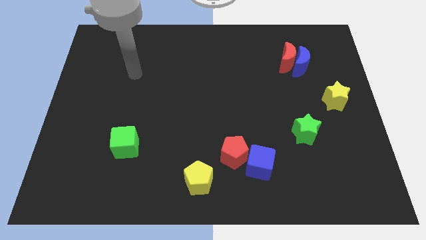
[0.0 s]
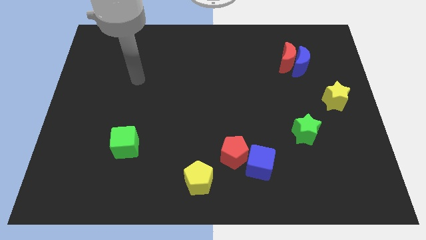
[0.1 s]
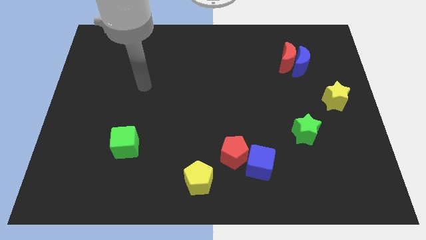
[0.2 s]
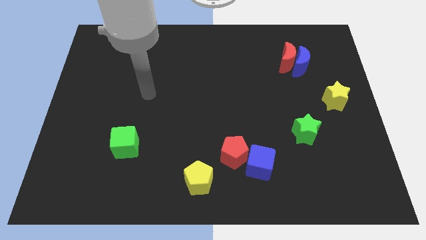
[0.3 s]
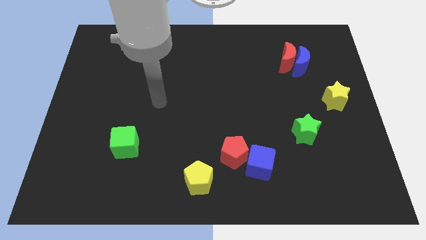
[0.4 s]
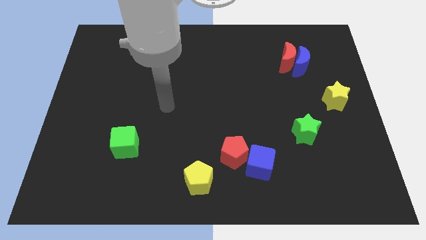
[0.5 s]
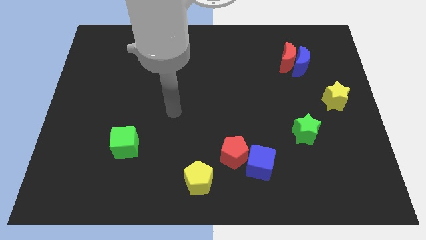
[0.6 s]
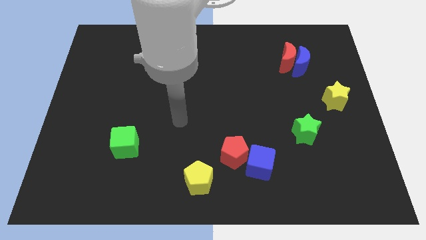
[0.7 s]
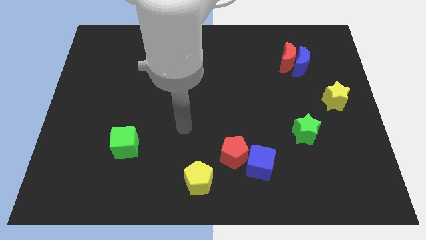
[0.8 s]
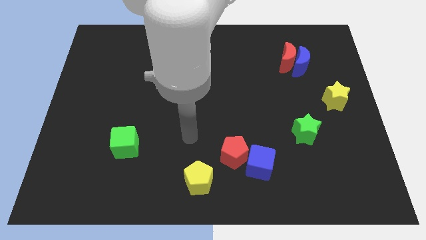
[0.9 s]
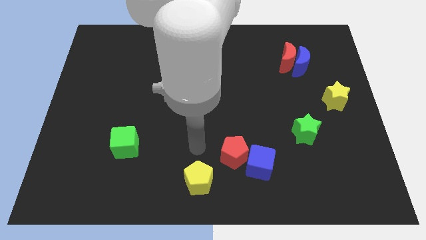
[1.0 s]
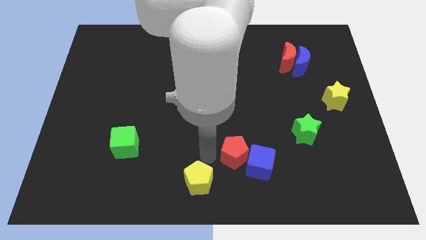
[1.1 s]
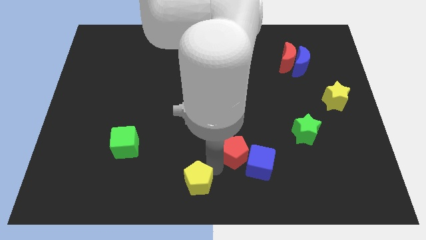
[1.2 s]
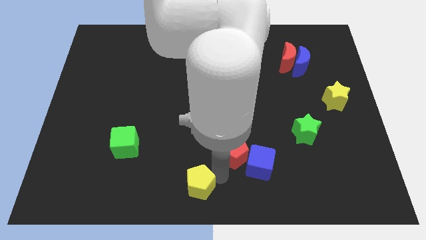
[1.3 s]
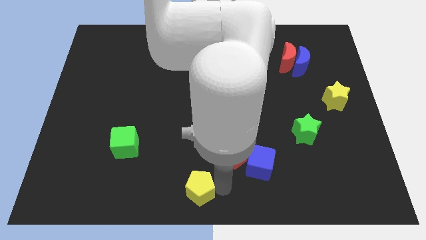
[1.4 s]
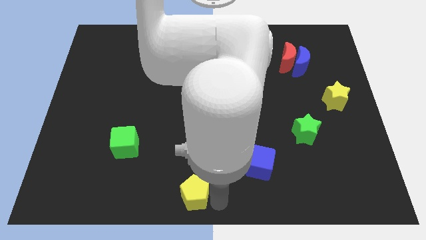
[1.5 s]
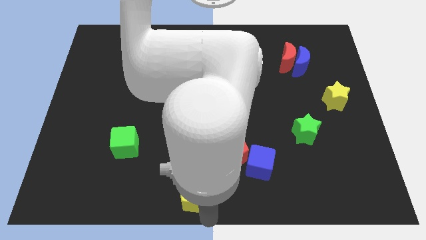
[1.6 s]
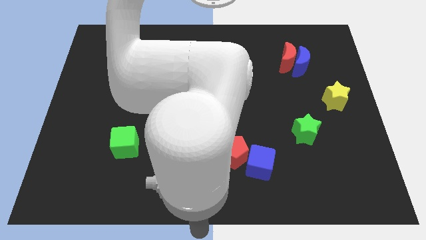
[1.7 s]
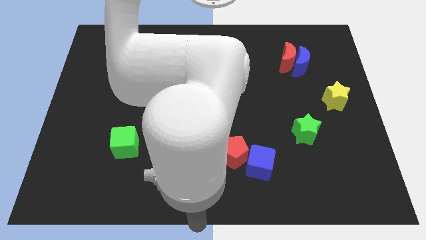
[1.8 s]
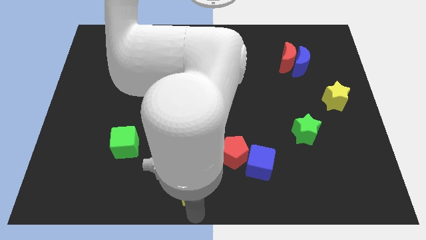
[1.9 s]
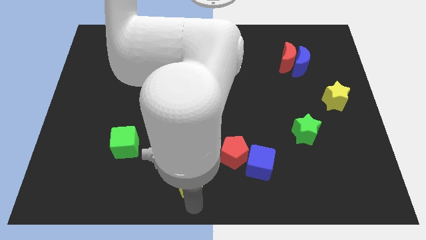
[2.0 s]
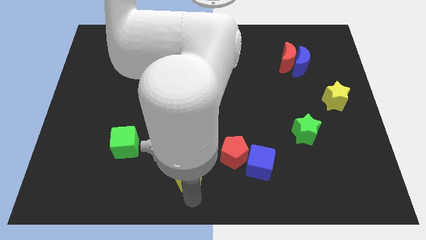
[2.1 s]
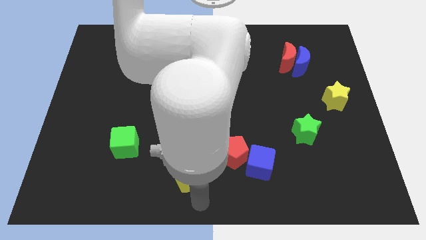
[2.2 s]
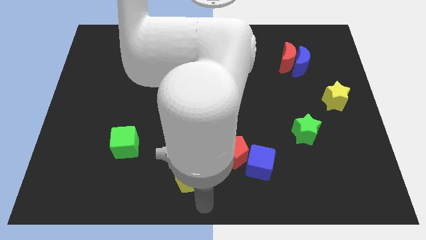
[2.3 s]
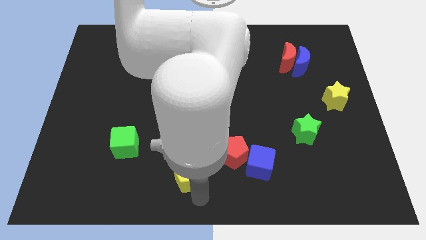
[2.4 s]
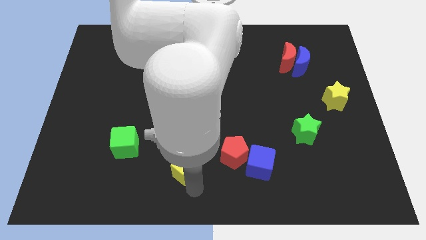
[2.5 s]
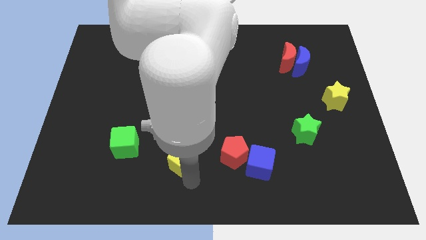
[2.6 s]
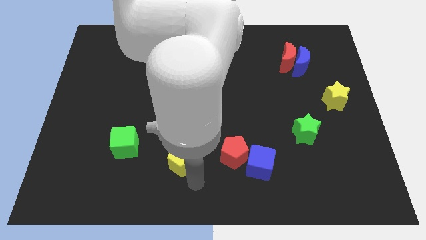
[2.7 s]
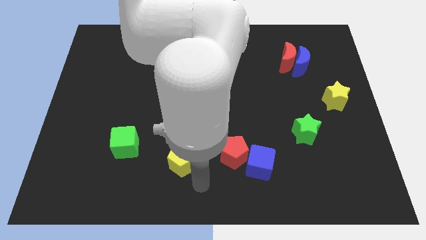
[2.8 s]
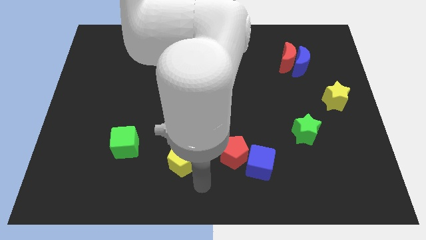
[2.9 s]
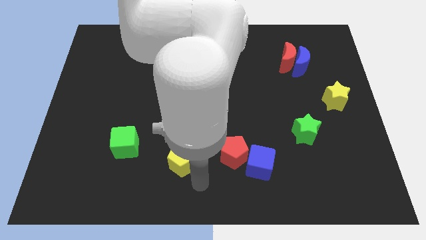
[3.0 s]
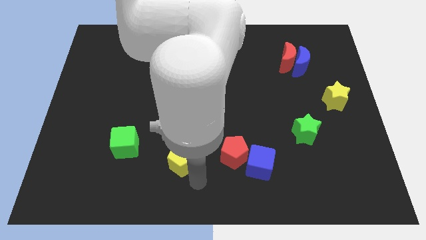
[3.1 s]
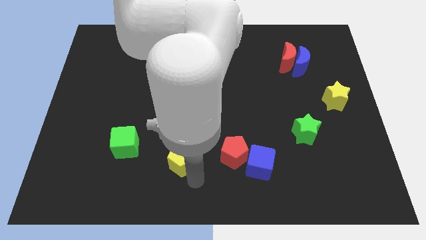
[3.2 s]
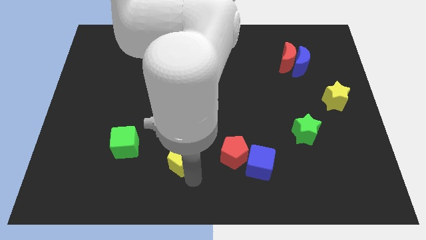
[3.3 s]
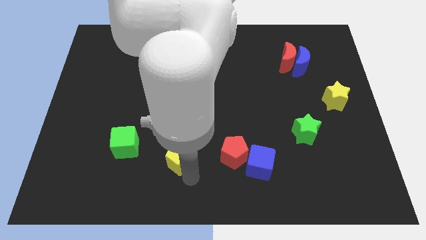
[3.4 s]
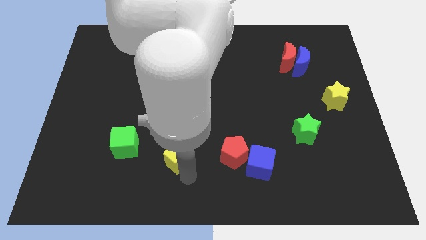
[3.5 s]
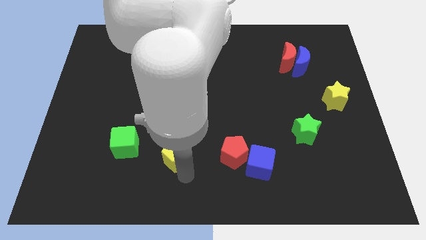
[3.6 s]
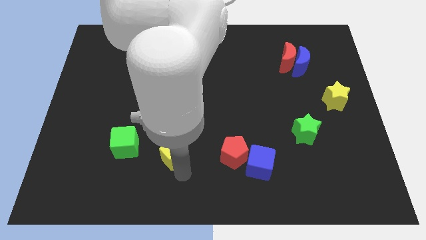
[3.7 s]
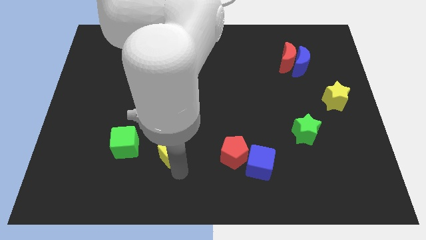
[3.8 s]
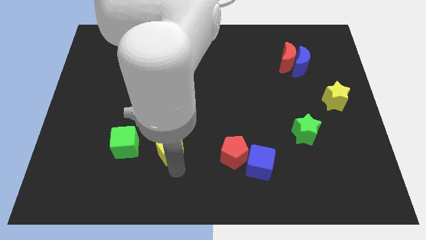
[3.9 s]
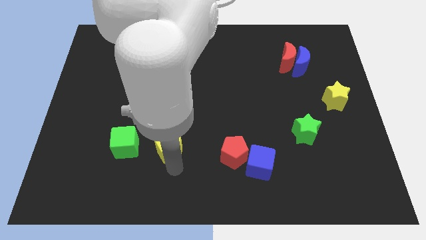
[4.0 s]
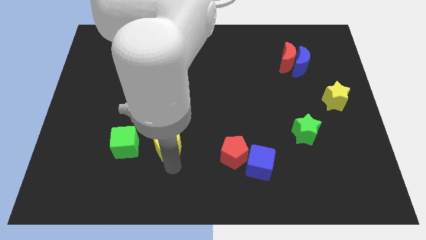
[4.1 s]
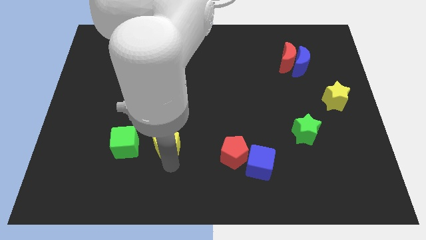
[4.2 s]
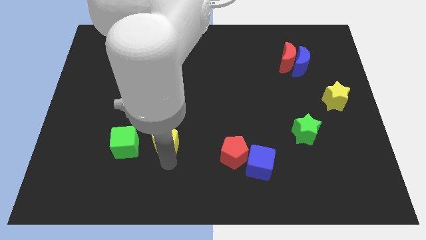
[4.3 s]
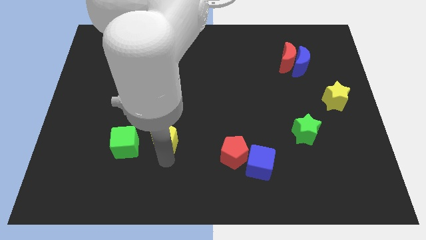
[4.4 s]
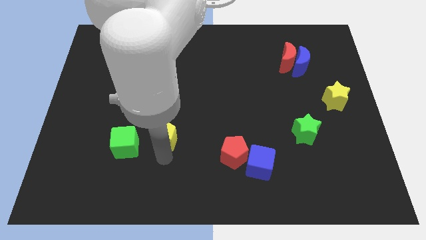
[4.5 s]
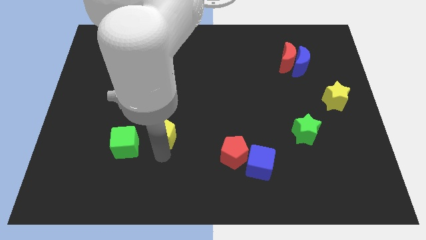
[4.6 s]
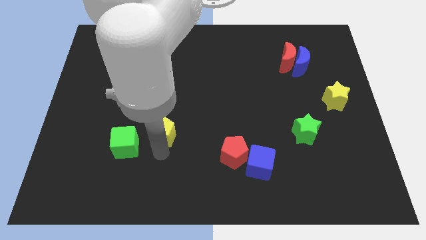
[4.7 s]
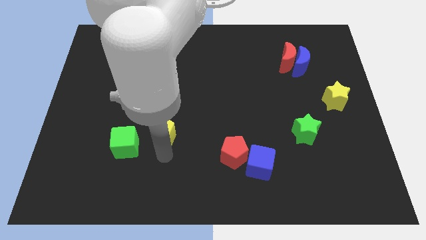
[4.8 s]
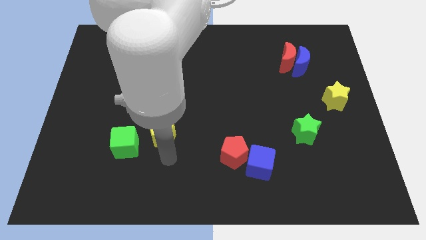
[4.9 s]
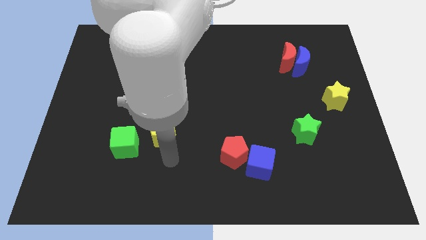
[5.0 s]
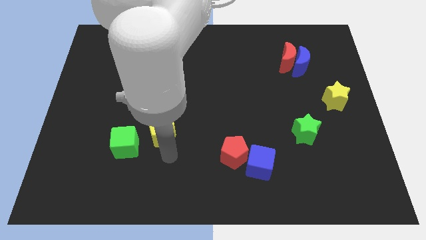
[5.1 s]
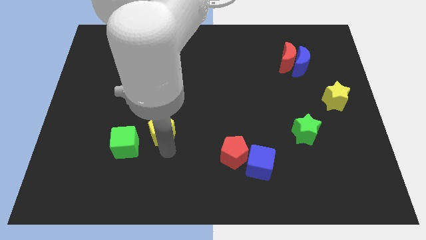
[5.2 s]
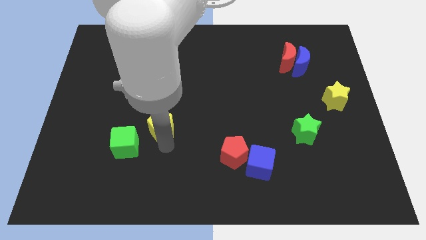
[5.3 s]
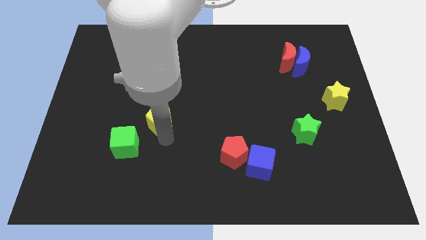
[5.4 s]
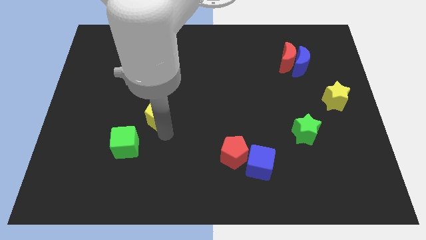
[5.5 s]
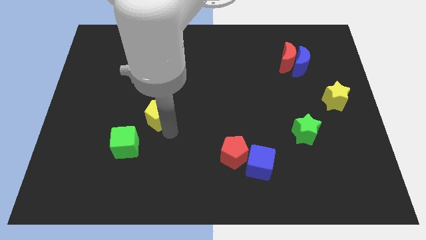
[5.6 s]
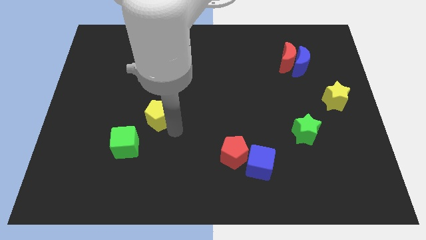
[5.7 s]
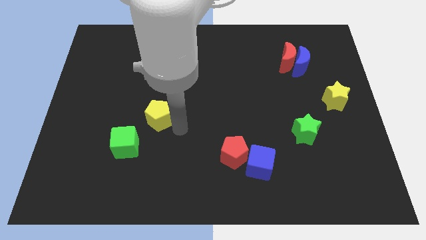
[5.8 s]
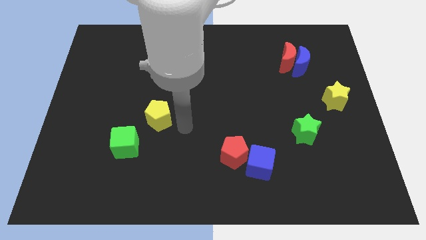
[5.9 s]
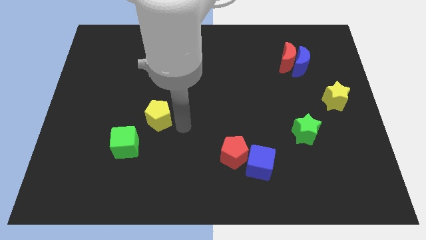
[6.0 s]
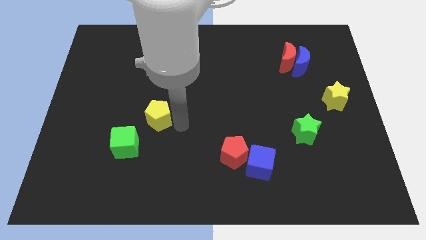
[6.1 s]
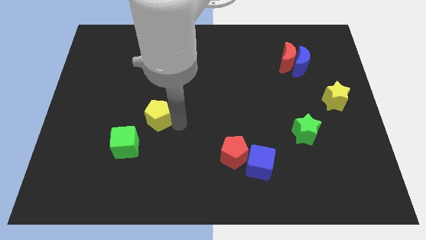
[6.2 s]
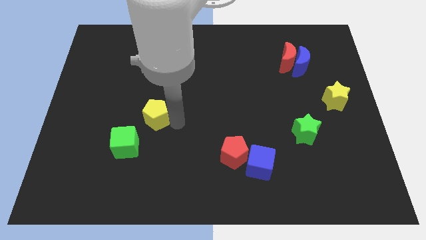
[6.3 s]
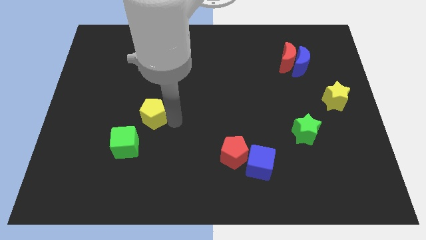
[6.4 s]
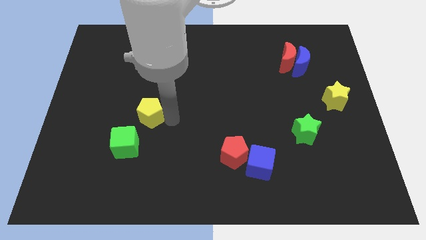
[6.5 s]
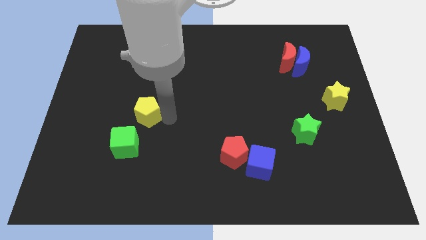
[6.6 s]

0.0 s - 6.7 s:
move the yellow pentagon up and to the left diagonally

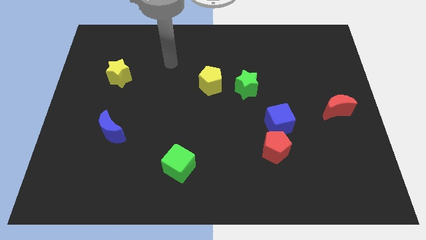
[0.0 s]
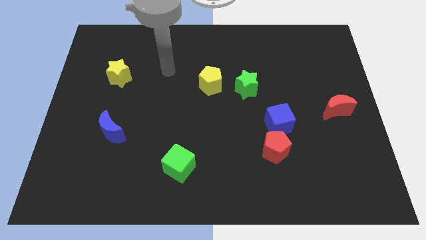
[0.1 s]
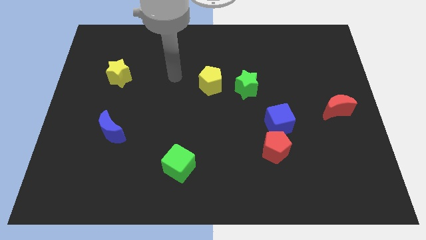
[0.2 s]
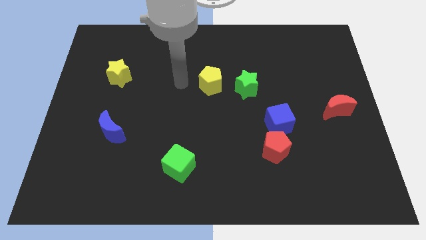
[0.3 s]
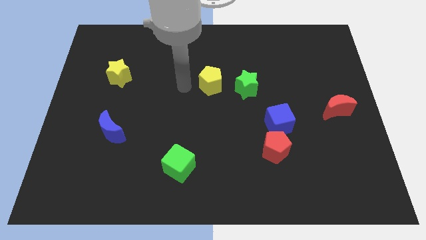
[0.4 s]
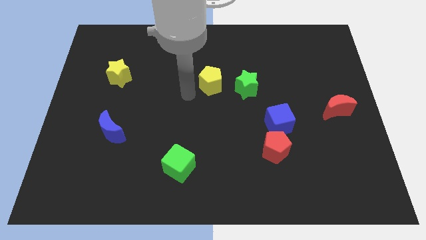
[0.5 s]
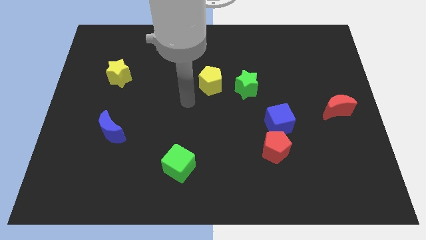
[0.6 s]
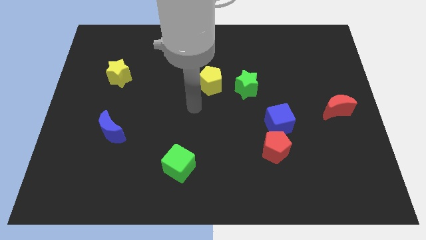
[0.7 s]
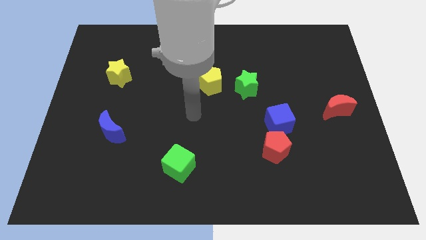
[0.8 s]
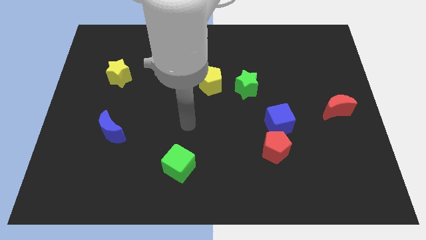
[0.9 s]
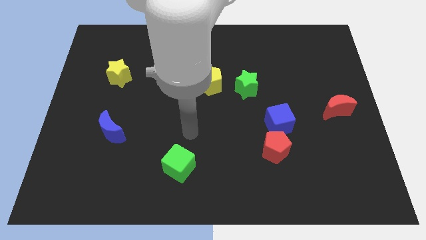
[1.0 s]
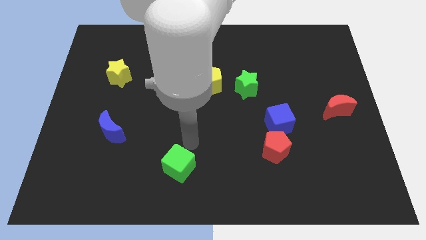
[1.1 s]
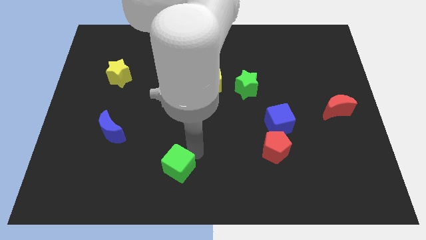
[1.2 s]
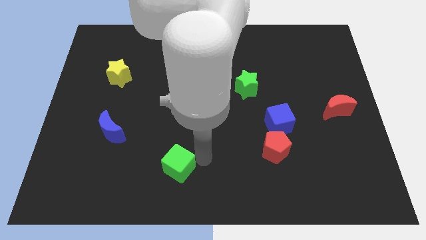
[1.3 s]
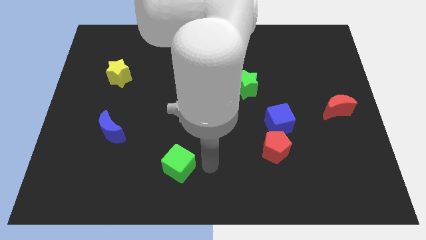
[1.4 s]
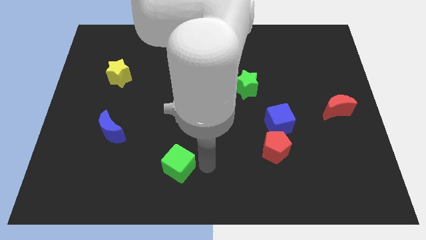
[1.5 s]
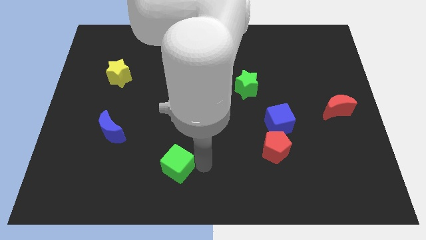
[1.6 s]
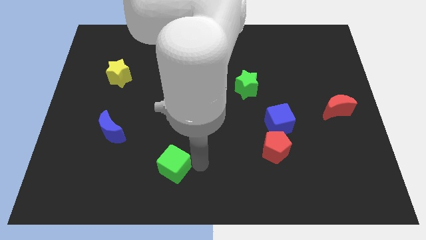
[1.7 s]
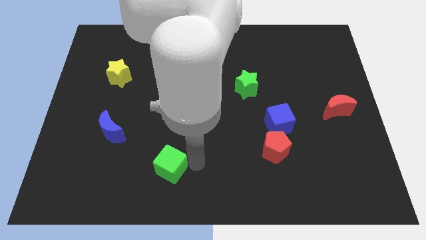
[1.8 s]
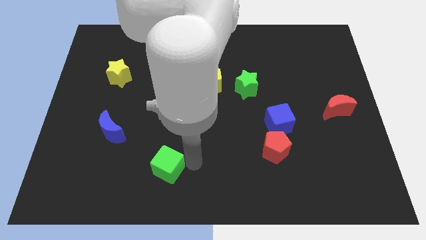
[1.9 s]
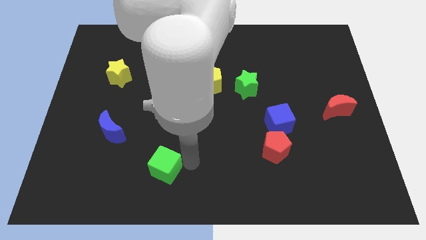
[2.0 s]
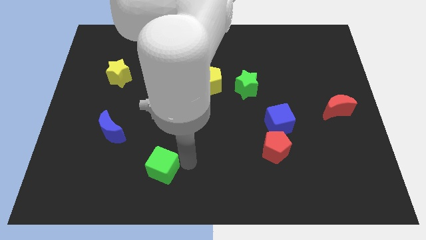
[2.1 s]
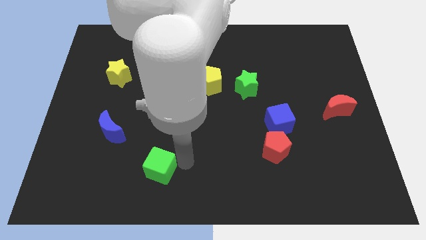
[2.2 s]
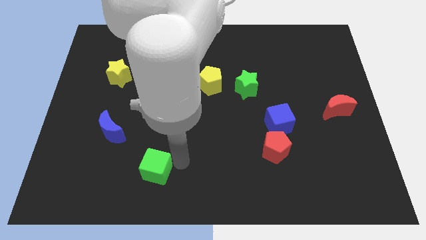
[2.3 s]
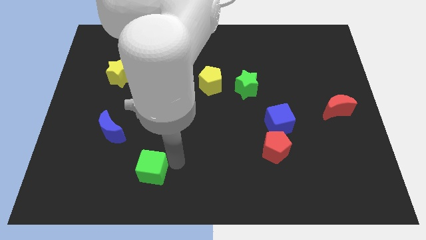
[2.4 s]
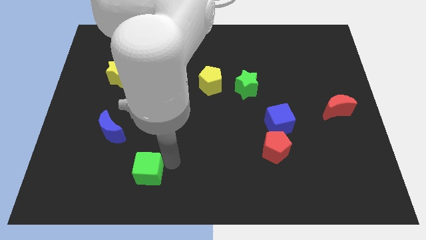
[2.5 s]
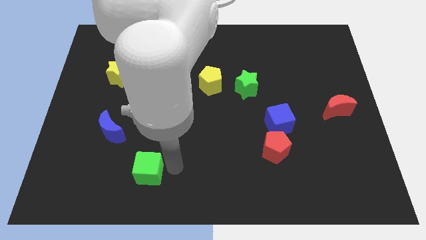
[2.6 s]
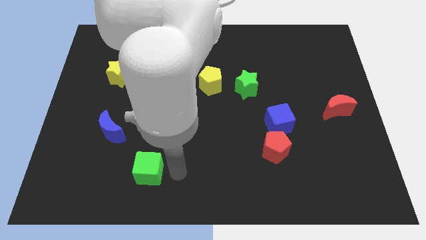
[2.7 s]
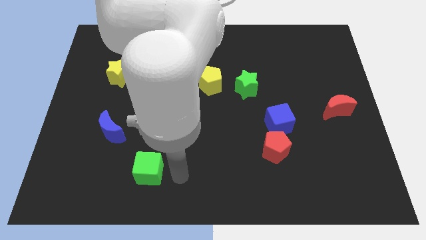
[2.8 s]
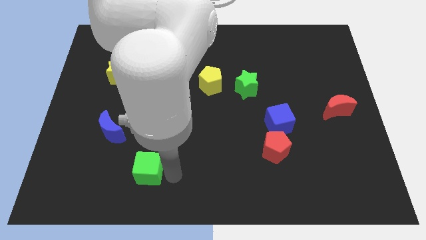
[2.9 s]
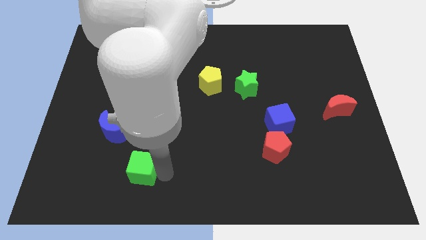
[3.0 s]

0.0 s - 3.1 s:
slide the green cube to the left a bit
